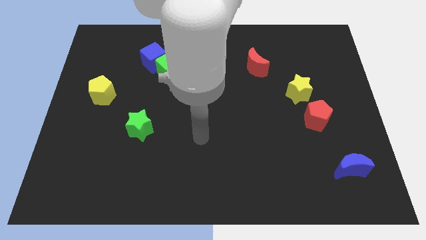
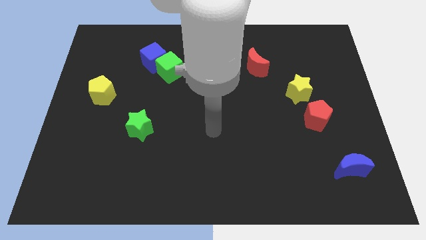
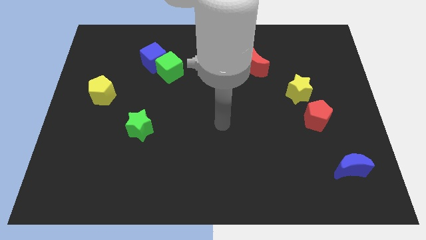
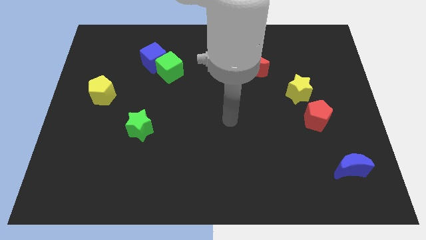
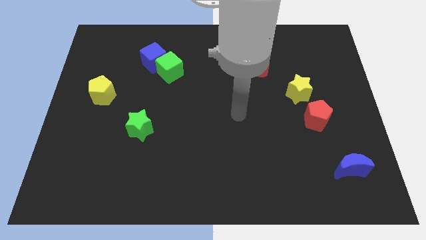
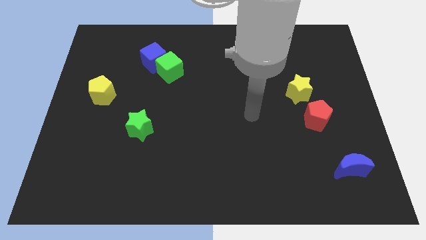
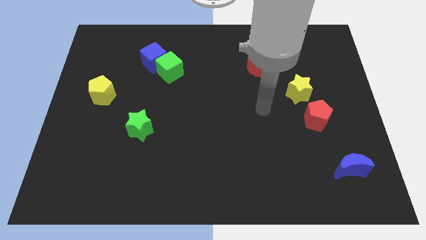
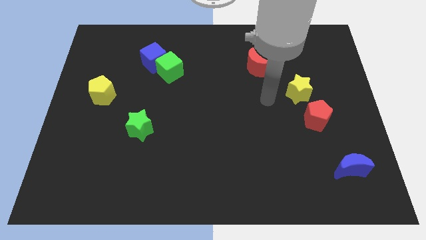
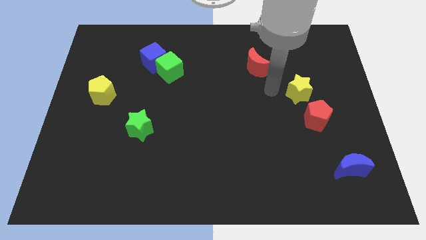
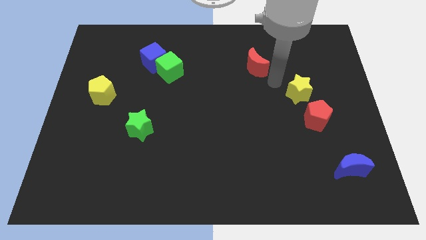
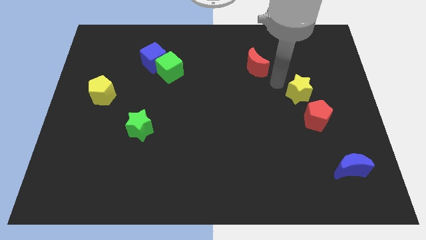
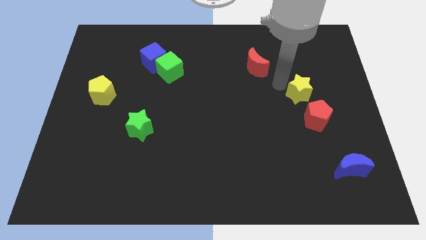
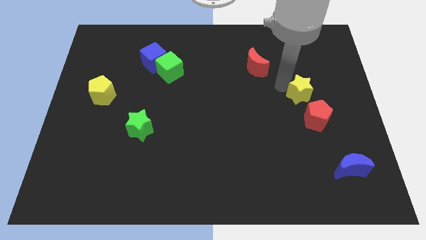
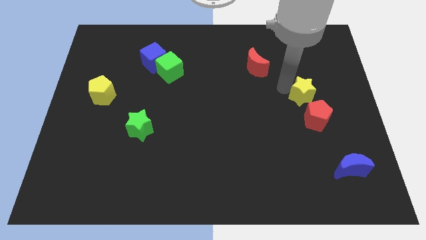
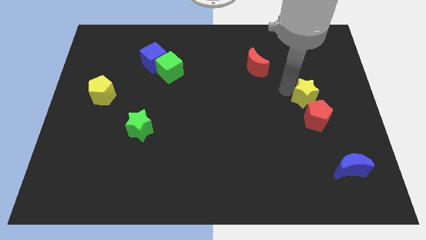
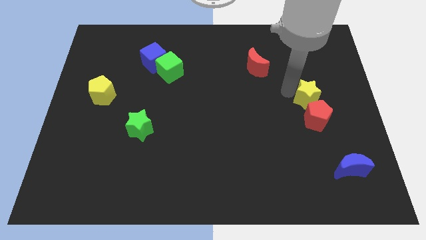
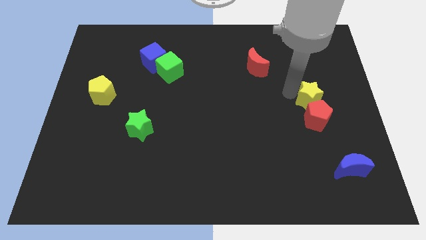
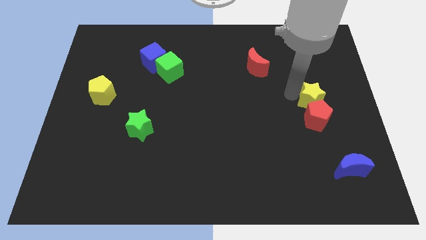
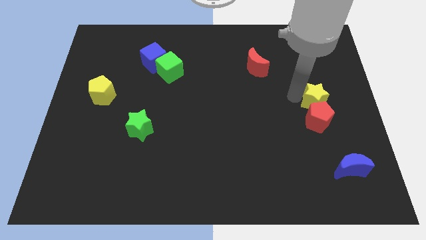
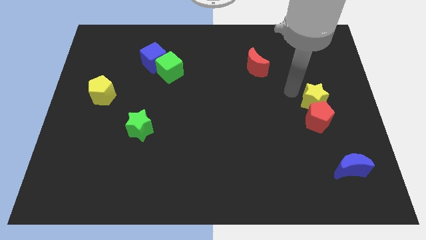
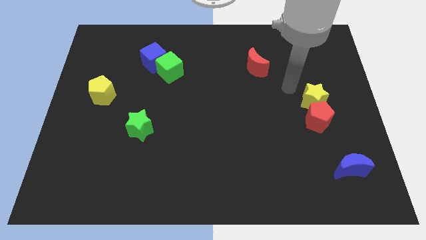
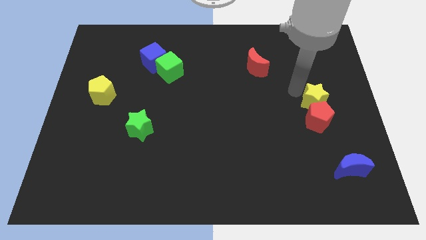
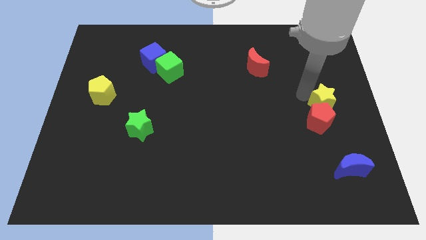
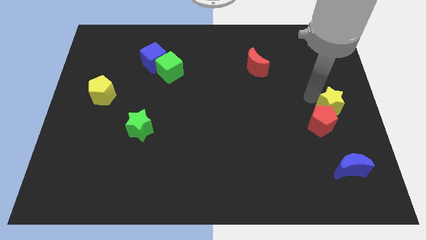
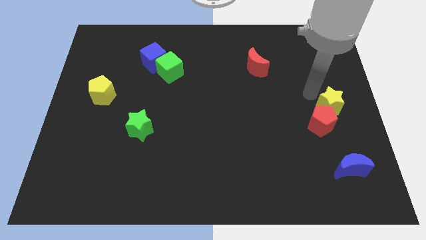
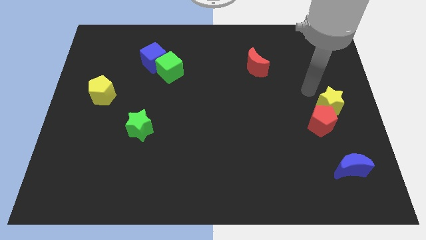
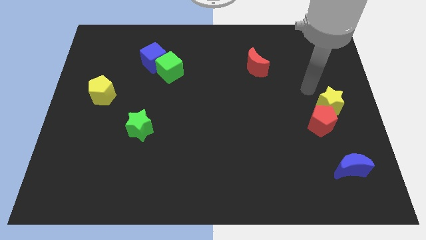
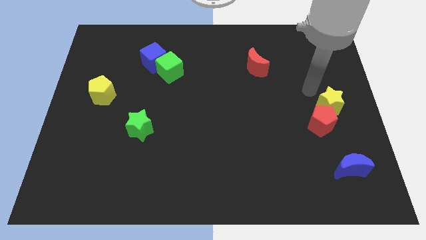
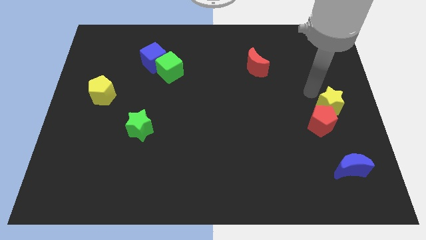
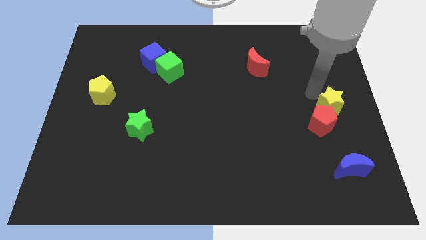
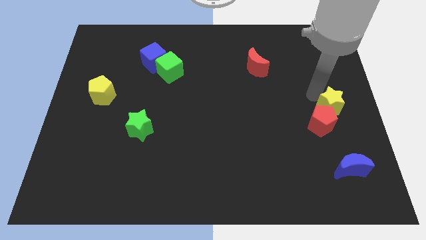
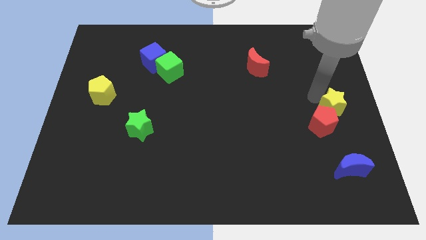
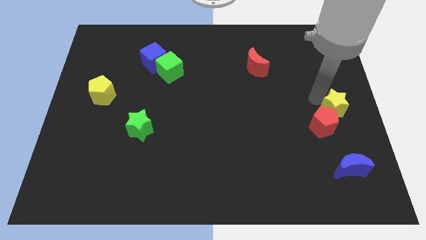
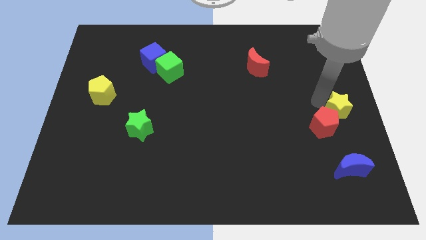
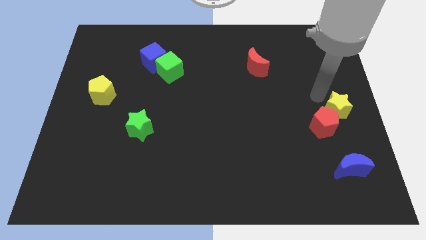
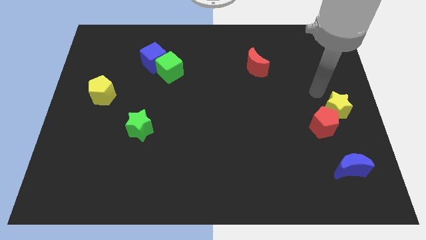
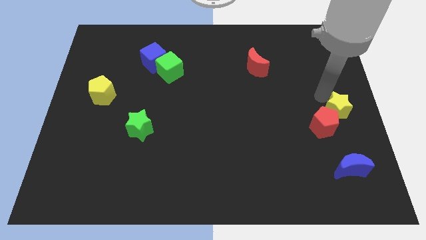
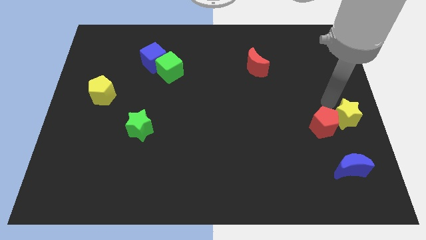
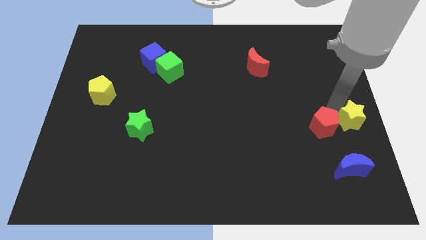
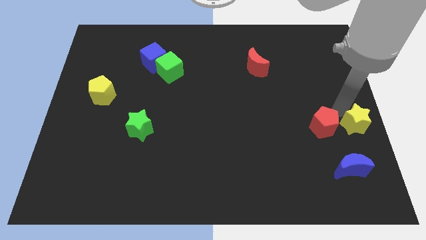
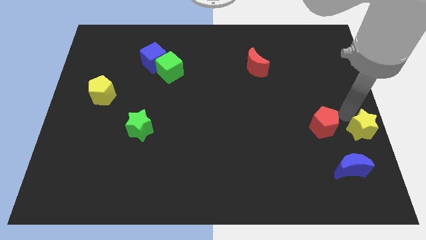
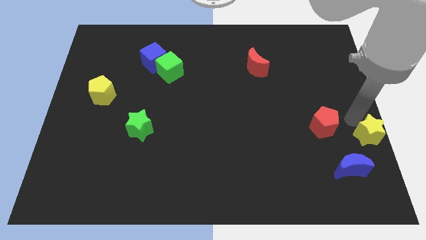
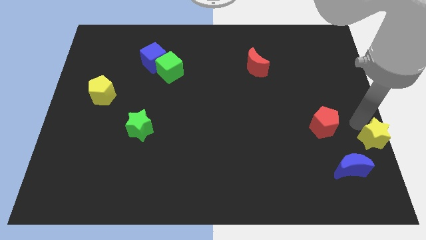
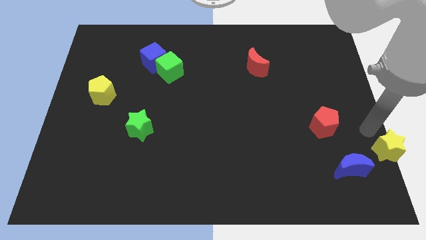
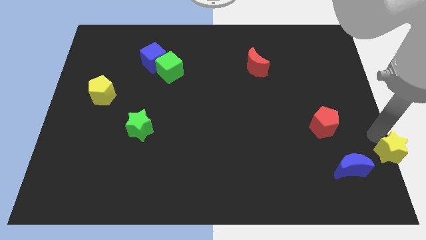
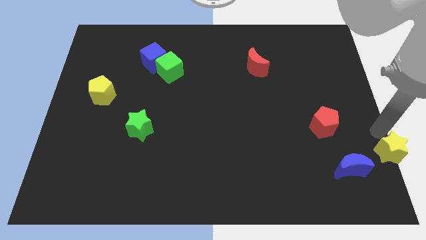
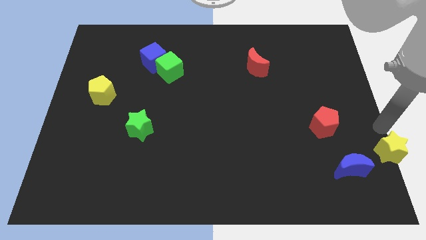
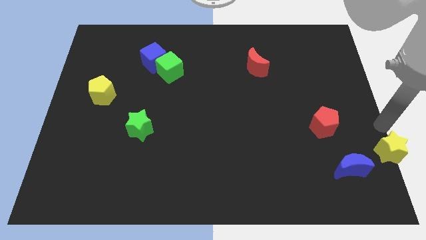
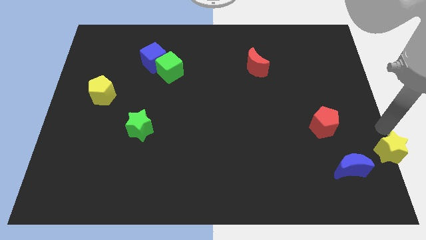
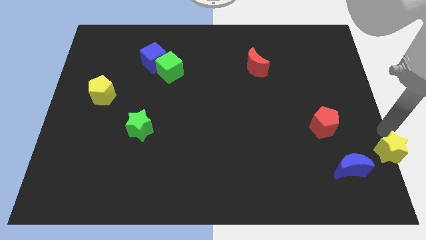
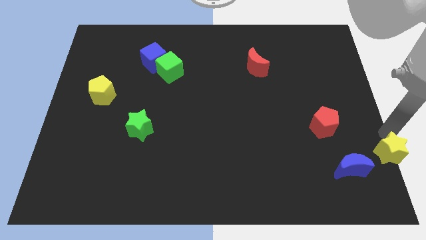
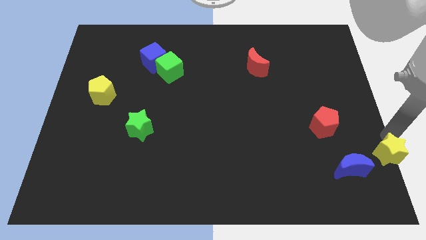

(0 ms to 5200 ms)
push the yellow star to the lower right corner

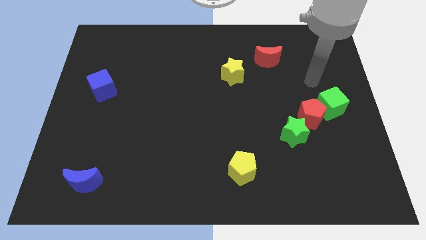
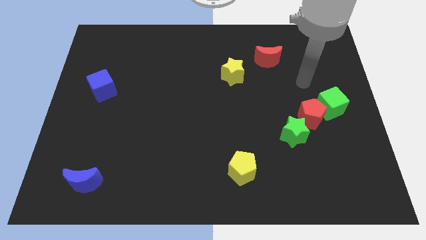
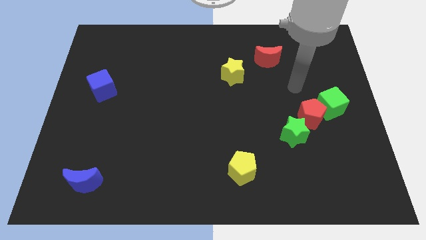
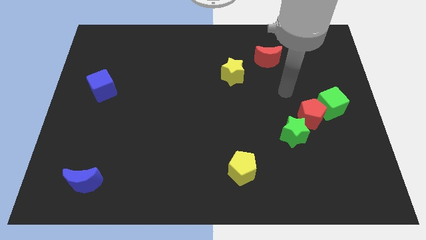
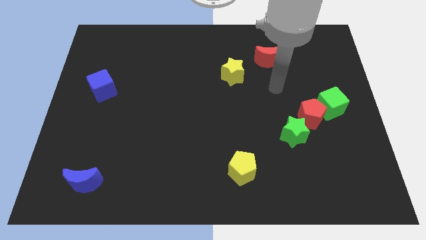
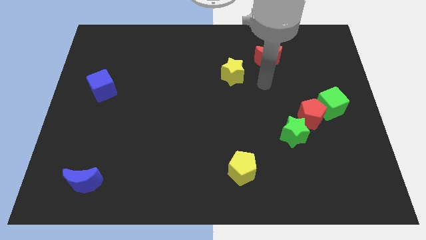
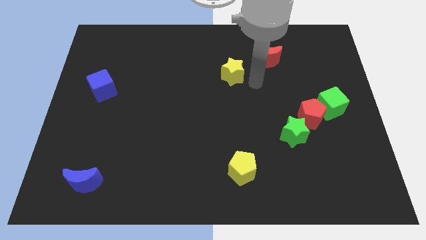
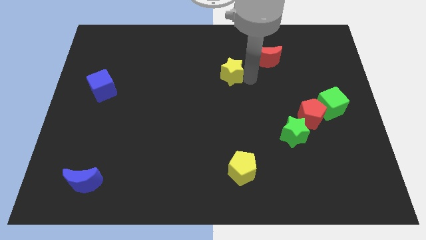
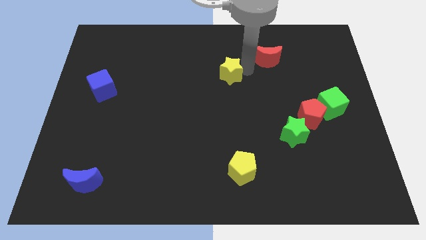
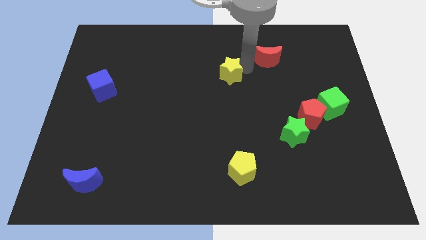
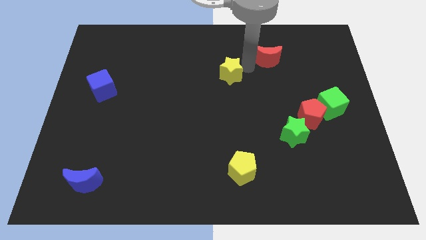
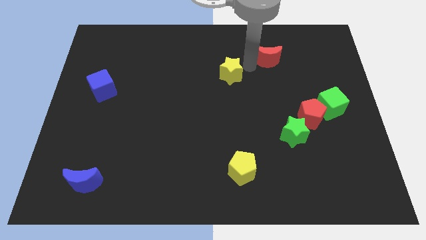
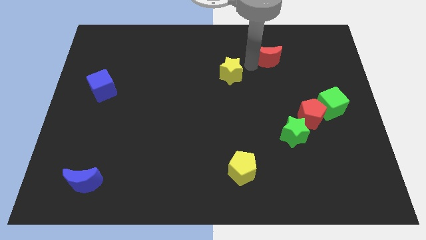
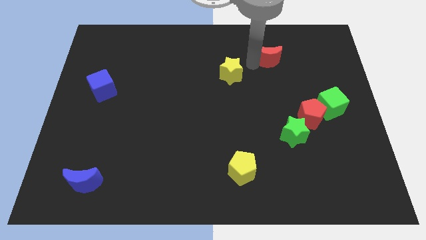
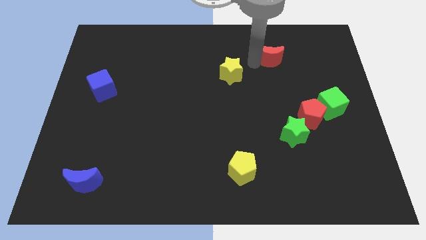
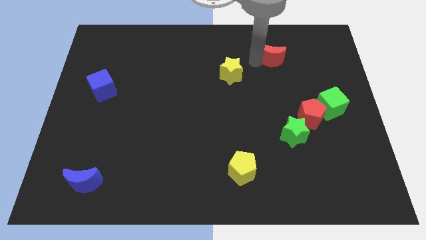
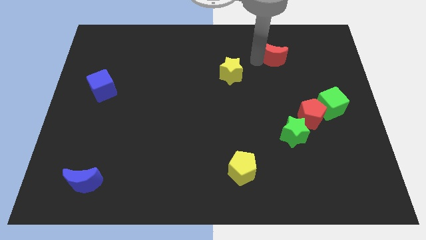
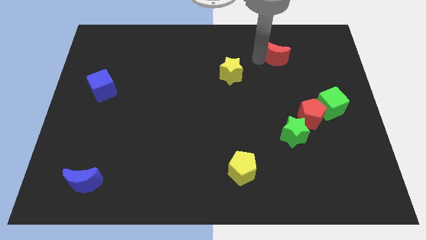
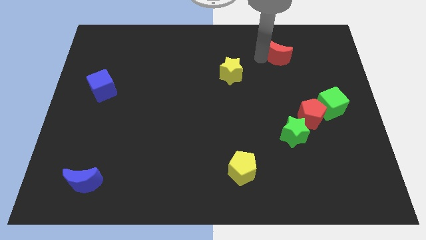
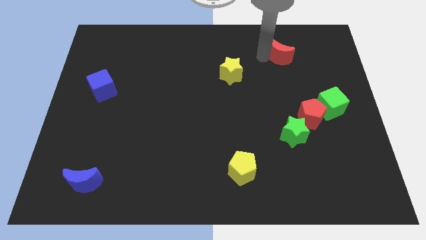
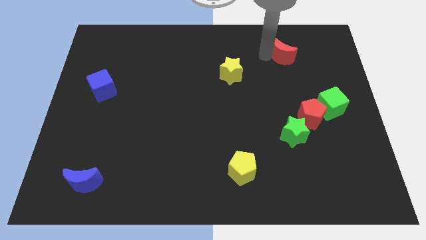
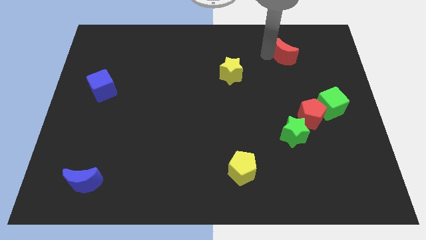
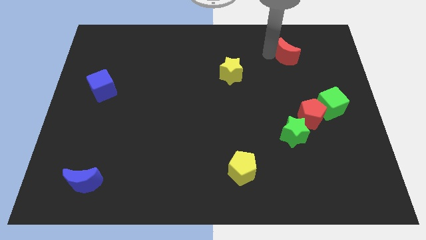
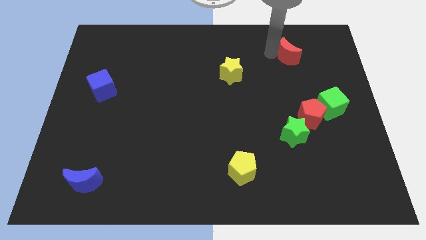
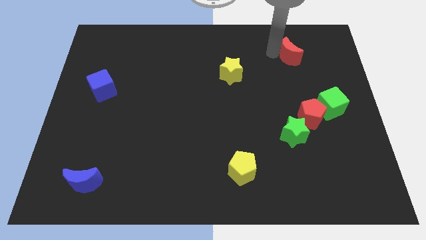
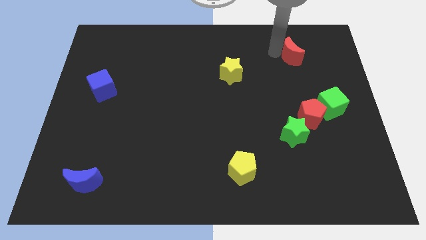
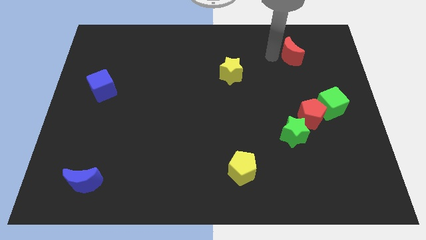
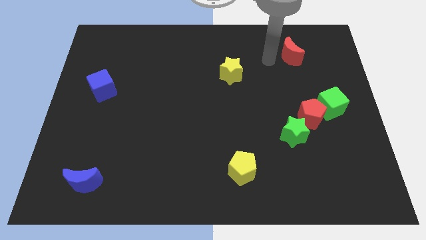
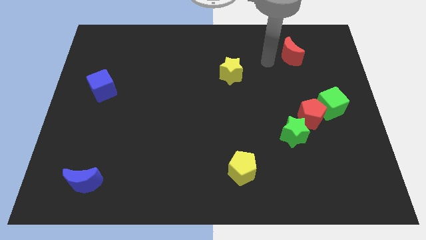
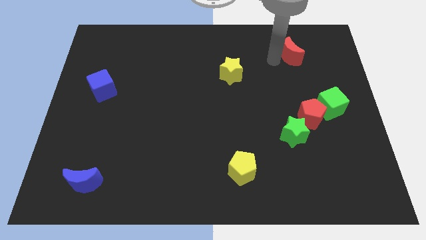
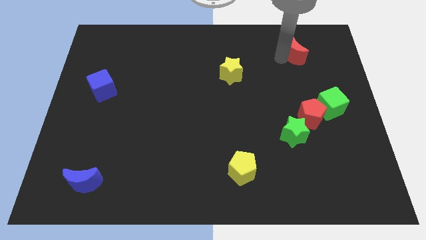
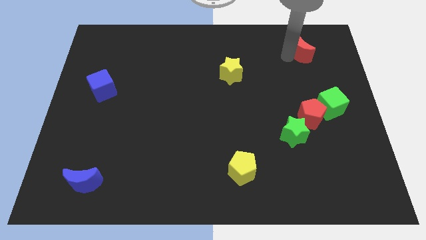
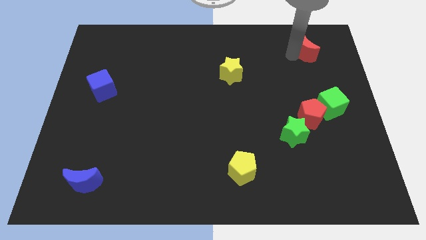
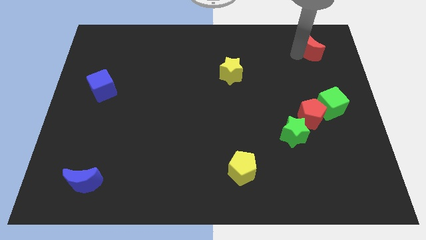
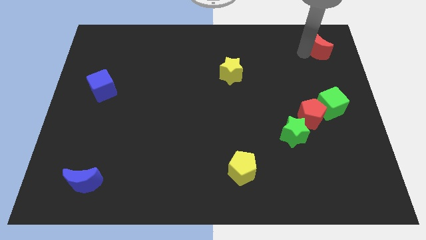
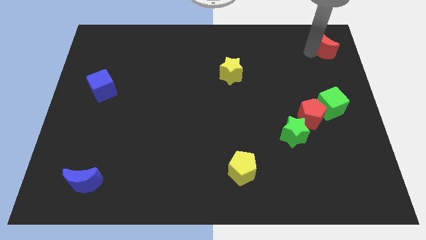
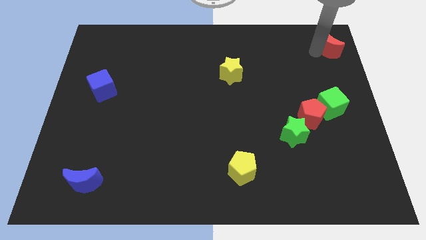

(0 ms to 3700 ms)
push the red moon to the top right corner
